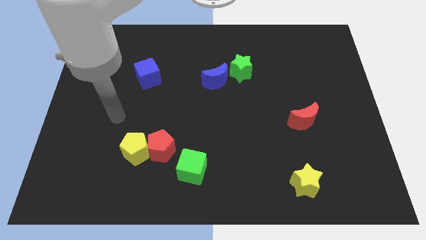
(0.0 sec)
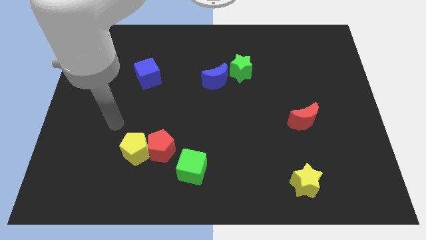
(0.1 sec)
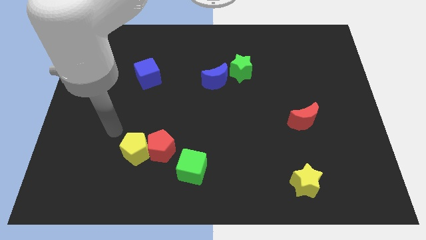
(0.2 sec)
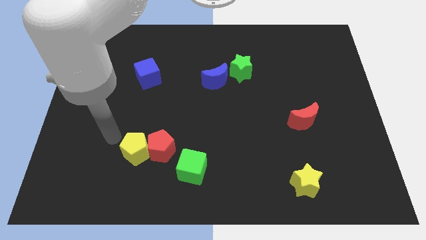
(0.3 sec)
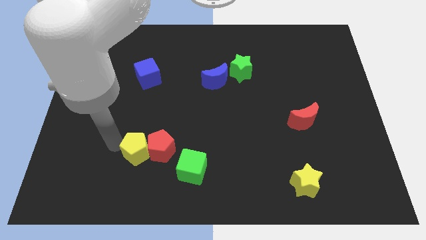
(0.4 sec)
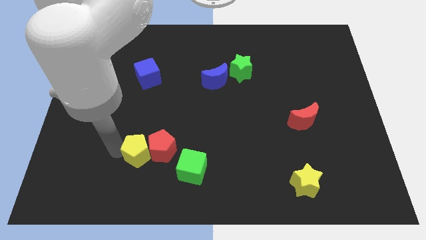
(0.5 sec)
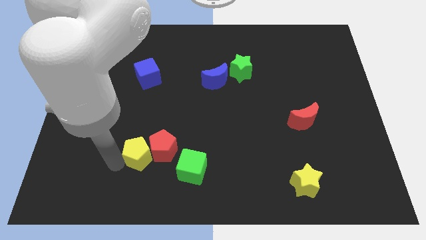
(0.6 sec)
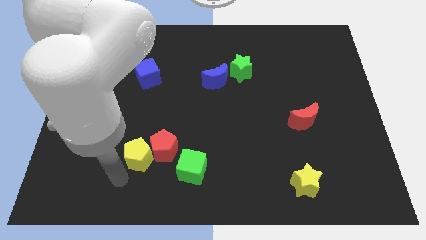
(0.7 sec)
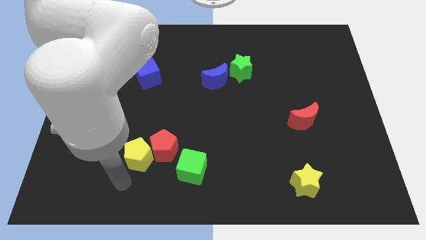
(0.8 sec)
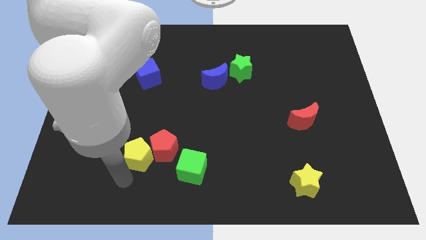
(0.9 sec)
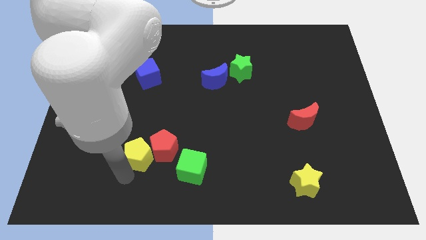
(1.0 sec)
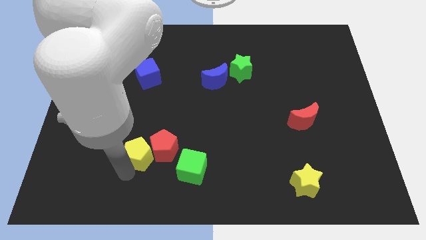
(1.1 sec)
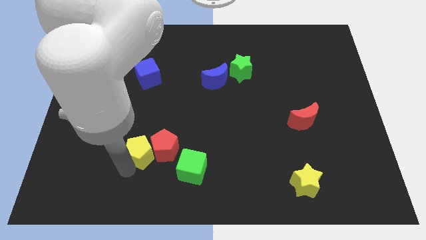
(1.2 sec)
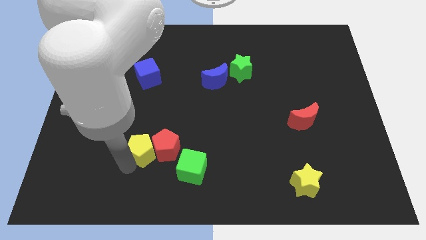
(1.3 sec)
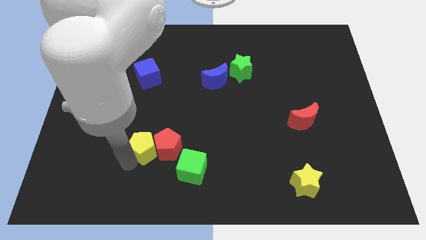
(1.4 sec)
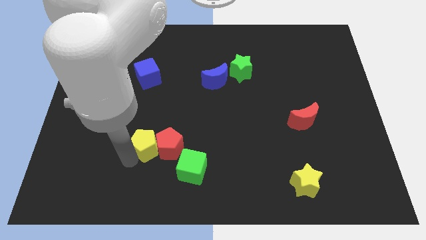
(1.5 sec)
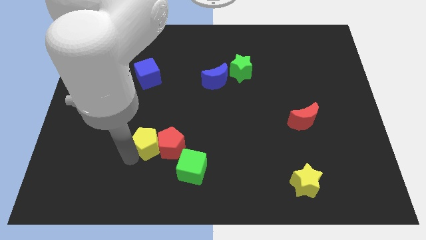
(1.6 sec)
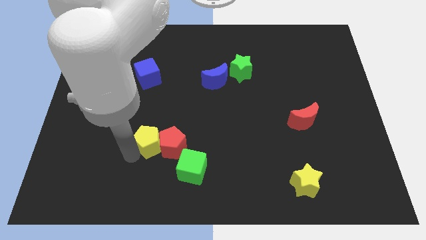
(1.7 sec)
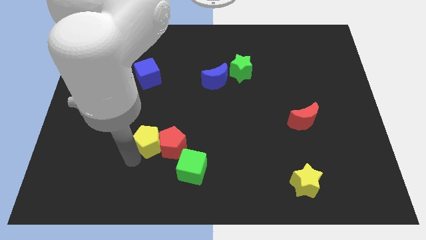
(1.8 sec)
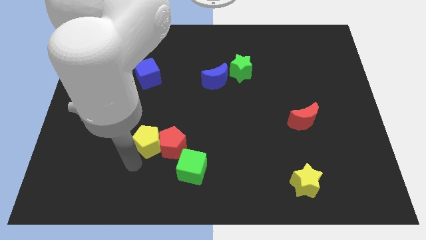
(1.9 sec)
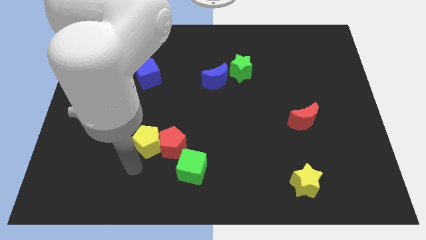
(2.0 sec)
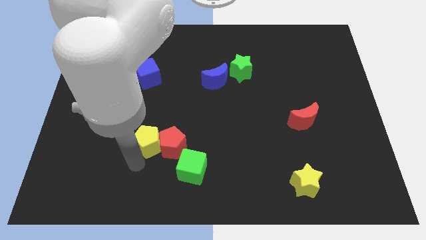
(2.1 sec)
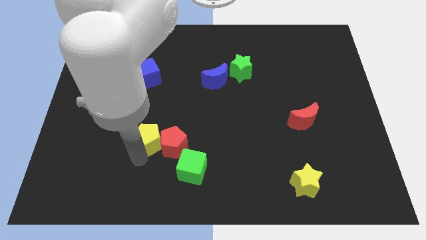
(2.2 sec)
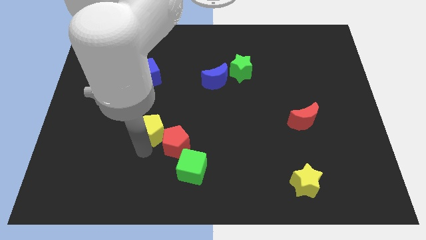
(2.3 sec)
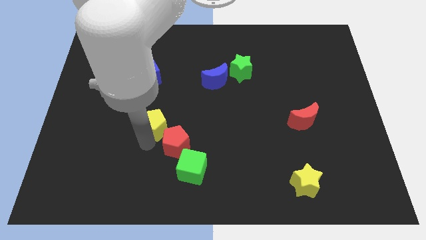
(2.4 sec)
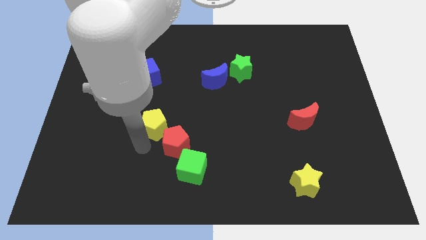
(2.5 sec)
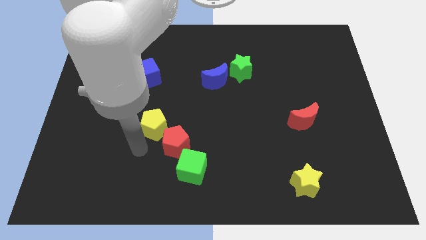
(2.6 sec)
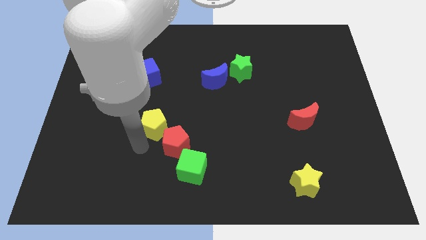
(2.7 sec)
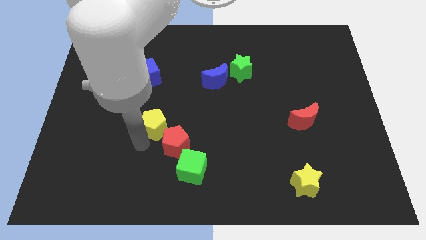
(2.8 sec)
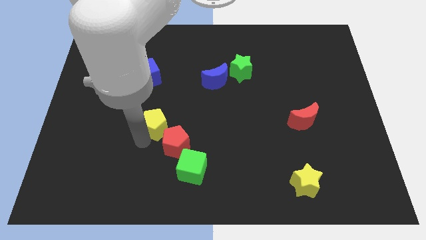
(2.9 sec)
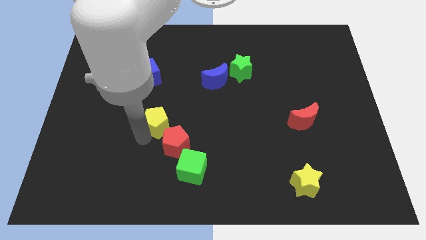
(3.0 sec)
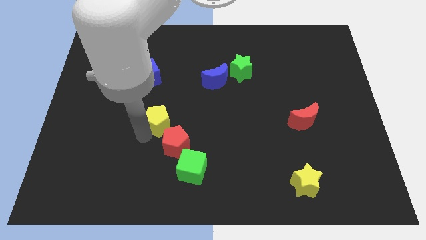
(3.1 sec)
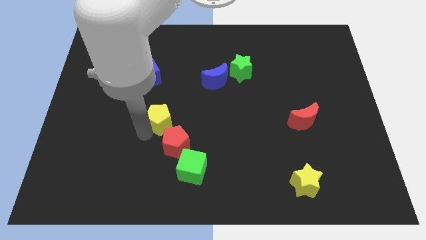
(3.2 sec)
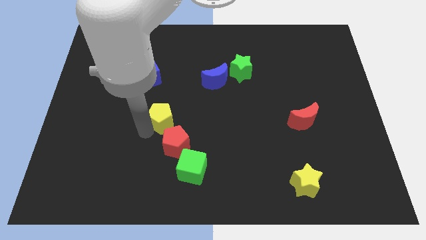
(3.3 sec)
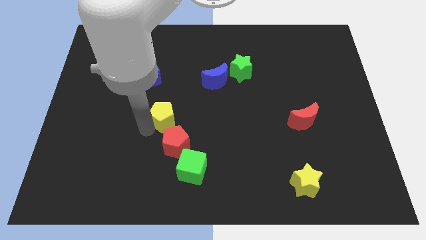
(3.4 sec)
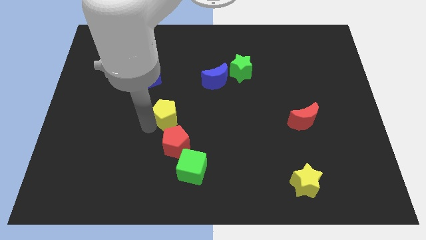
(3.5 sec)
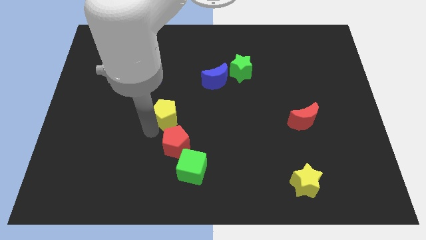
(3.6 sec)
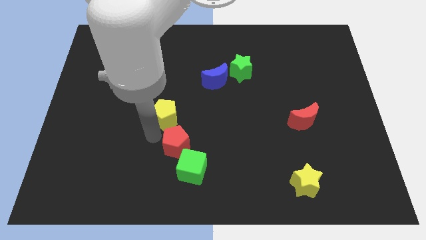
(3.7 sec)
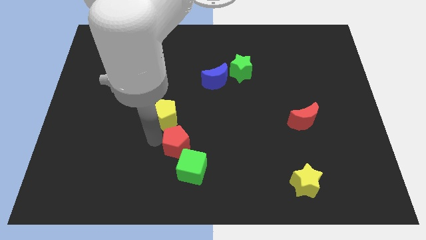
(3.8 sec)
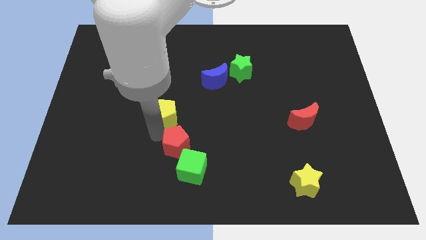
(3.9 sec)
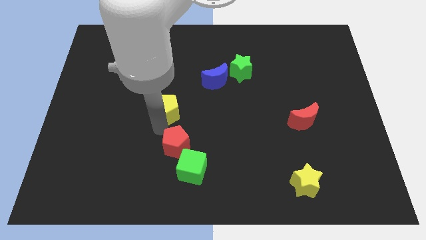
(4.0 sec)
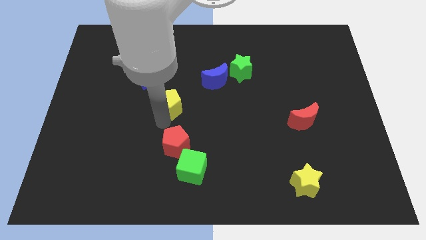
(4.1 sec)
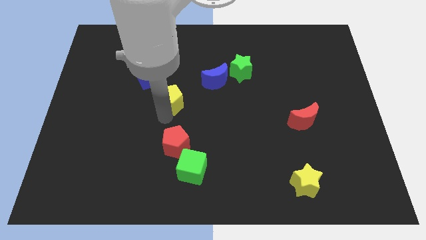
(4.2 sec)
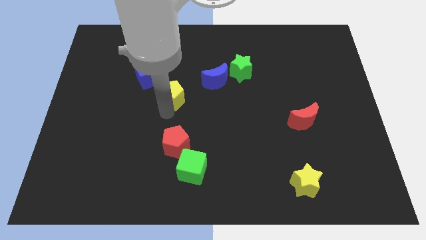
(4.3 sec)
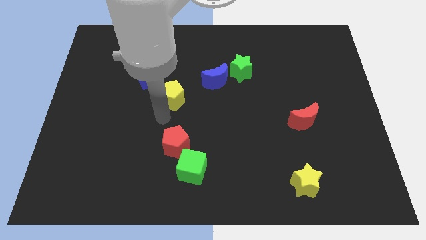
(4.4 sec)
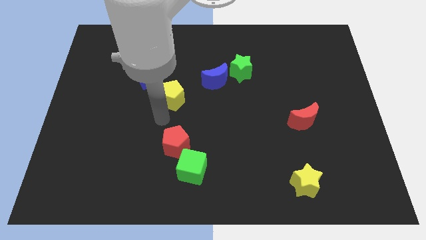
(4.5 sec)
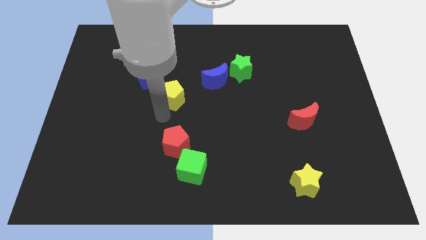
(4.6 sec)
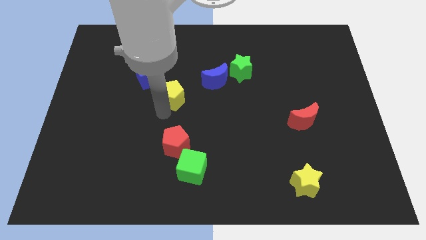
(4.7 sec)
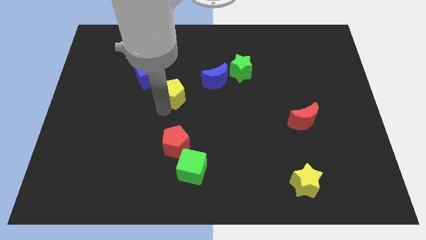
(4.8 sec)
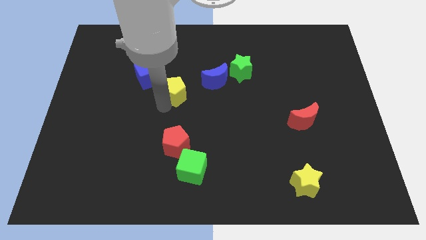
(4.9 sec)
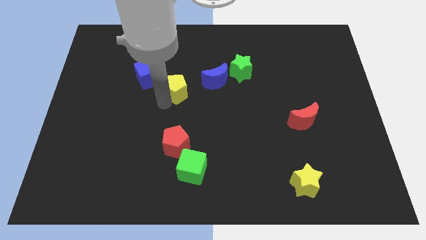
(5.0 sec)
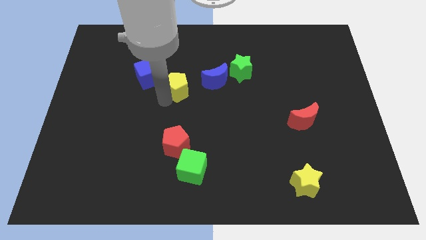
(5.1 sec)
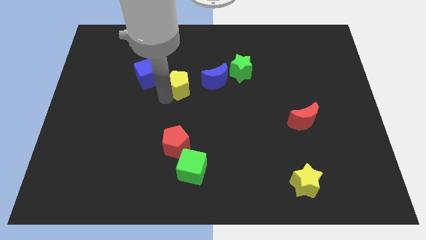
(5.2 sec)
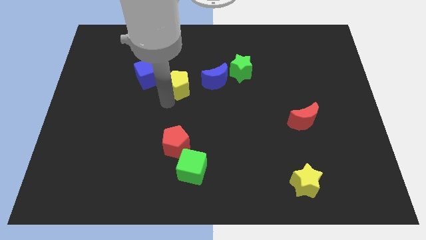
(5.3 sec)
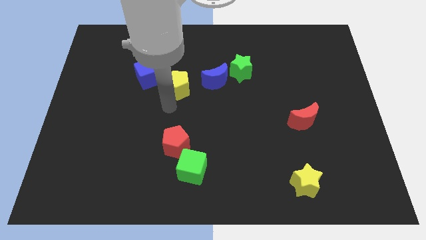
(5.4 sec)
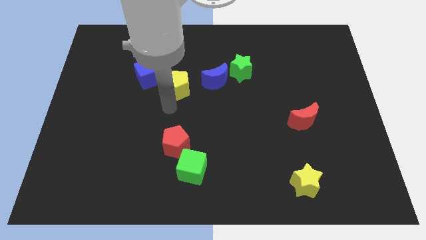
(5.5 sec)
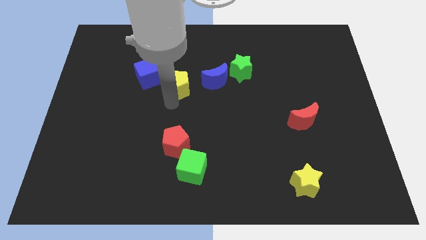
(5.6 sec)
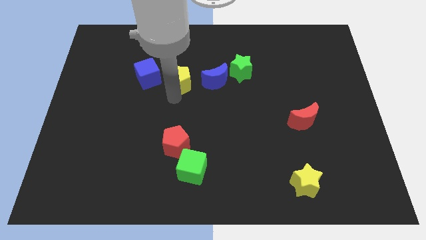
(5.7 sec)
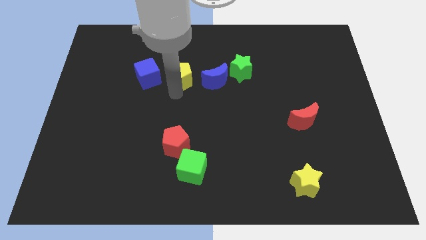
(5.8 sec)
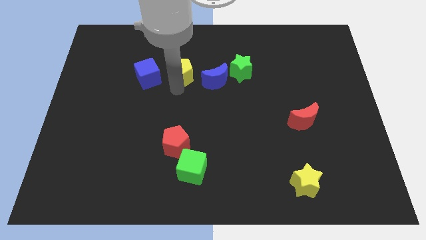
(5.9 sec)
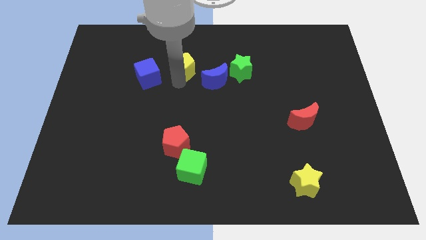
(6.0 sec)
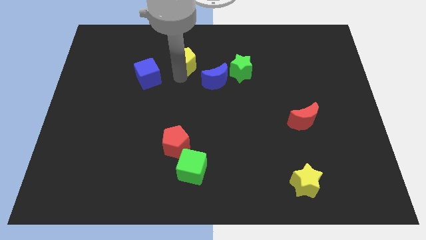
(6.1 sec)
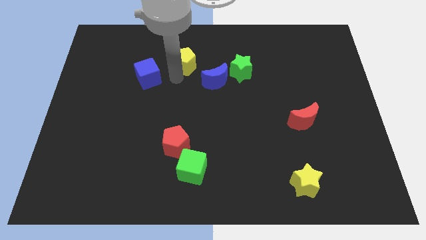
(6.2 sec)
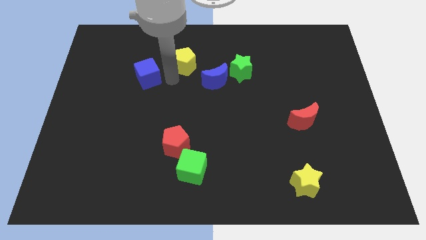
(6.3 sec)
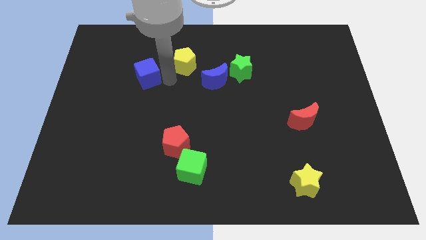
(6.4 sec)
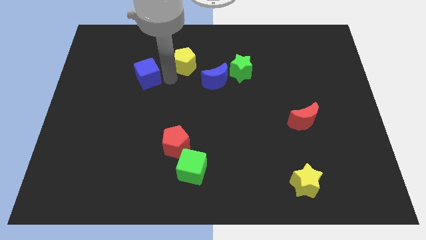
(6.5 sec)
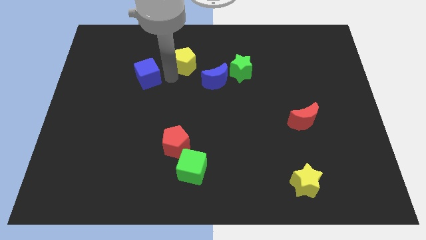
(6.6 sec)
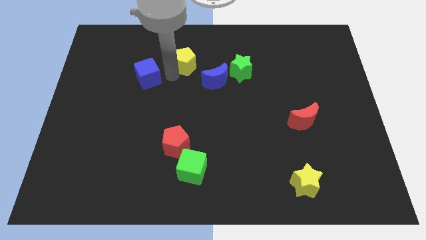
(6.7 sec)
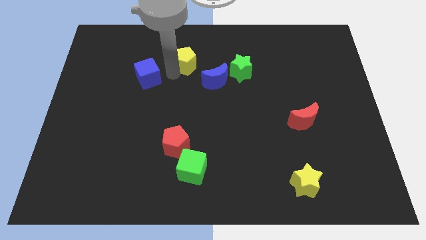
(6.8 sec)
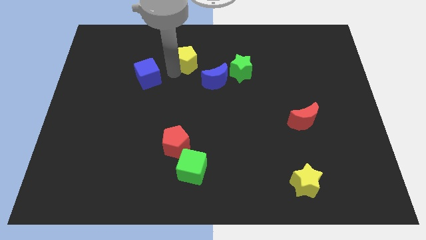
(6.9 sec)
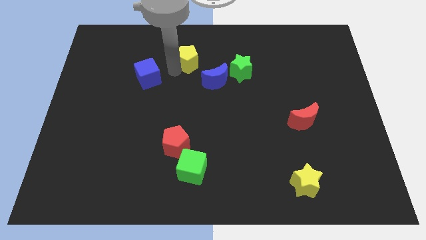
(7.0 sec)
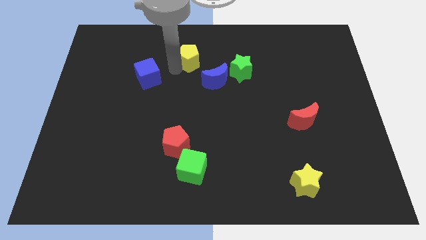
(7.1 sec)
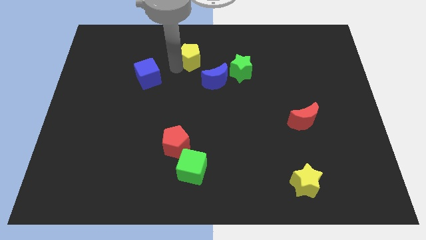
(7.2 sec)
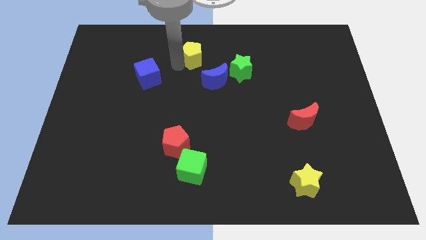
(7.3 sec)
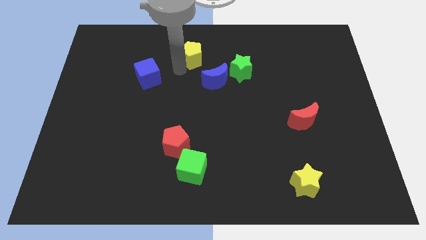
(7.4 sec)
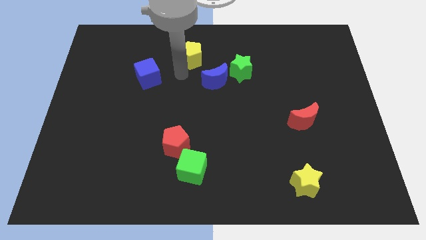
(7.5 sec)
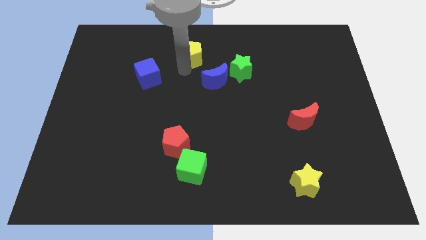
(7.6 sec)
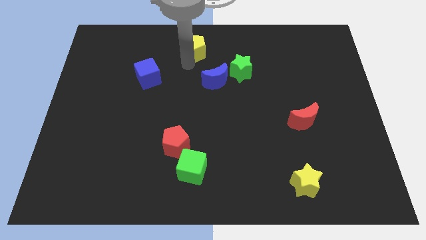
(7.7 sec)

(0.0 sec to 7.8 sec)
move the yellow pentagon to the towards your base
